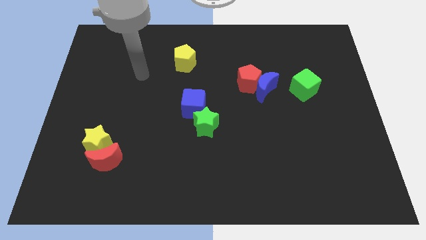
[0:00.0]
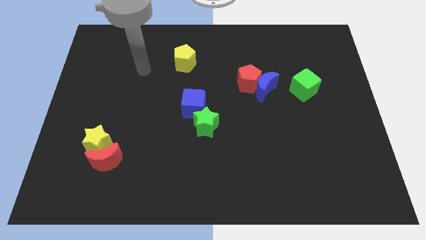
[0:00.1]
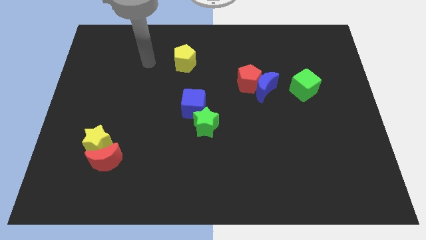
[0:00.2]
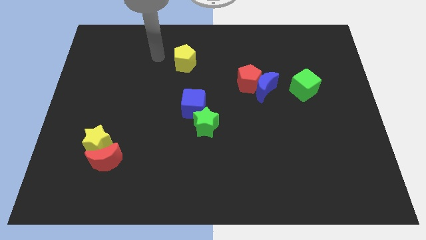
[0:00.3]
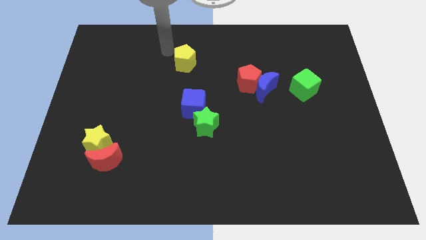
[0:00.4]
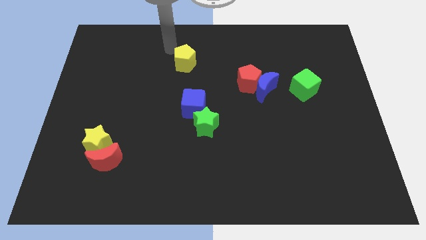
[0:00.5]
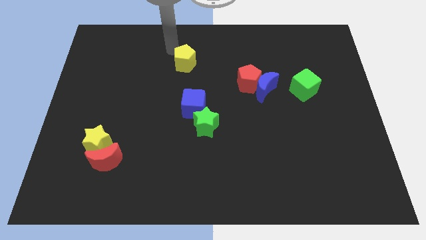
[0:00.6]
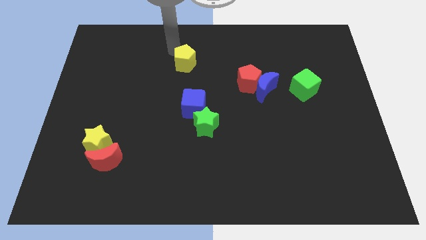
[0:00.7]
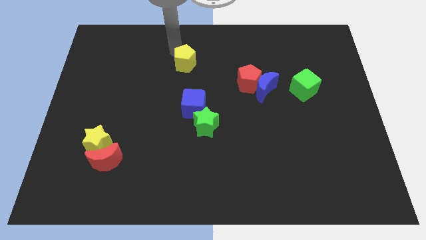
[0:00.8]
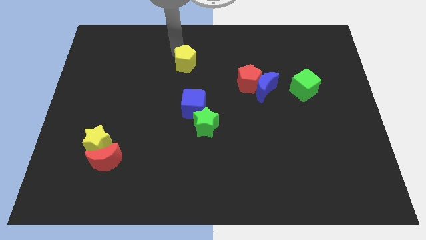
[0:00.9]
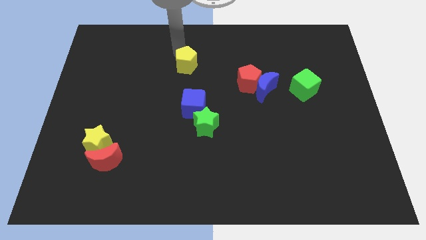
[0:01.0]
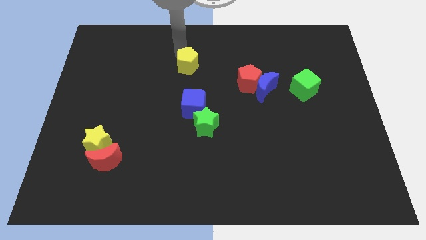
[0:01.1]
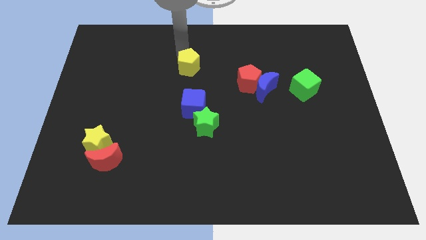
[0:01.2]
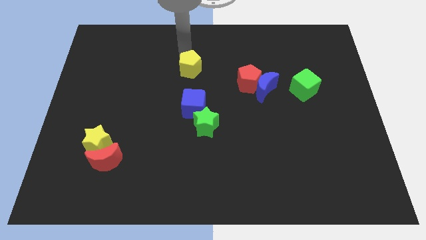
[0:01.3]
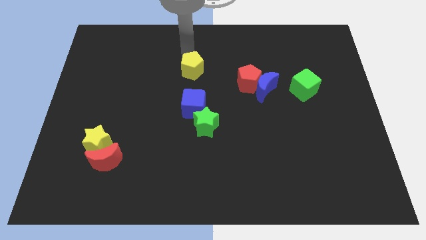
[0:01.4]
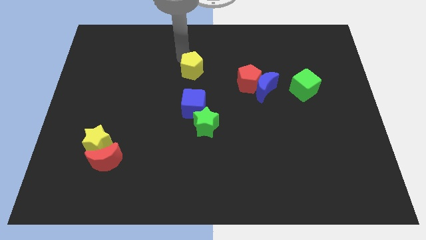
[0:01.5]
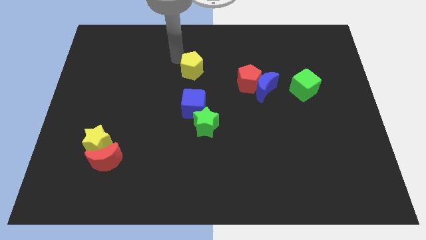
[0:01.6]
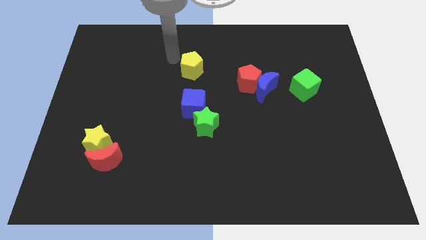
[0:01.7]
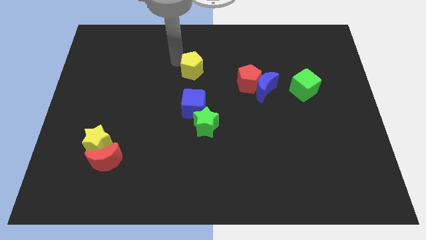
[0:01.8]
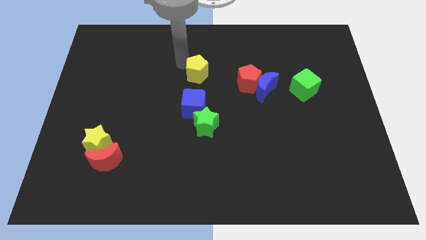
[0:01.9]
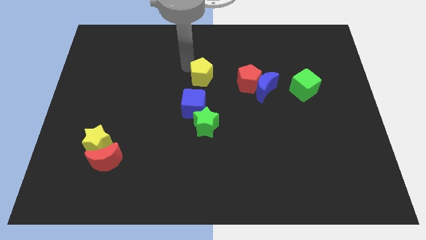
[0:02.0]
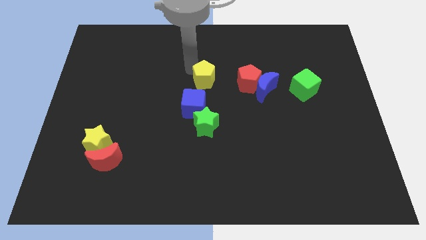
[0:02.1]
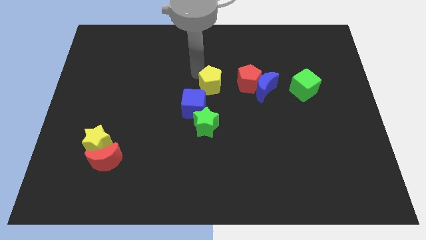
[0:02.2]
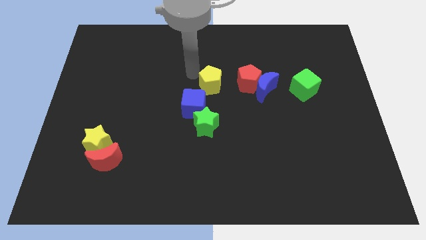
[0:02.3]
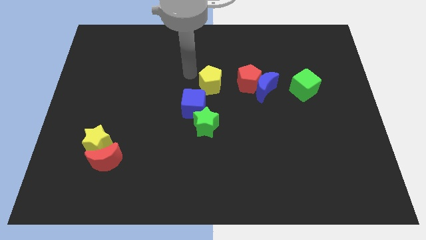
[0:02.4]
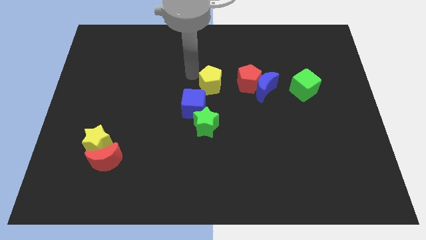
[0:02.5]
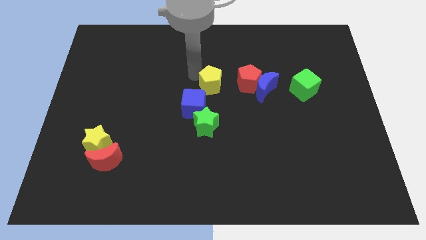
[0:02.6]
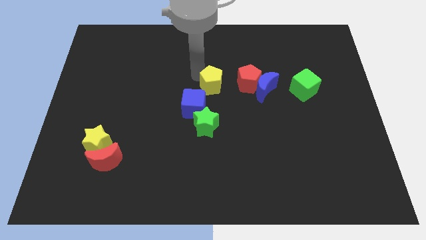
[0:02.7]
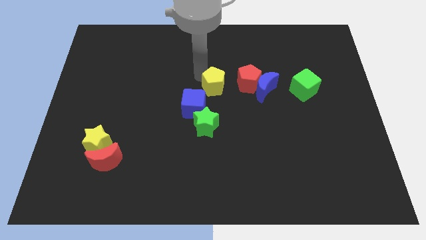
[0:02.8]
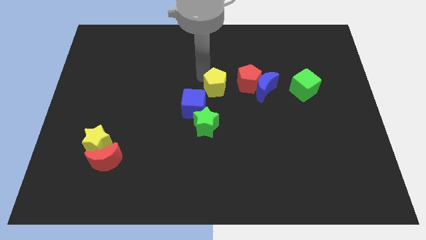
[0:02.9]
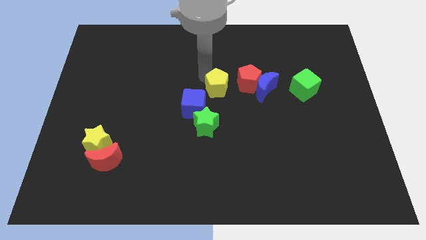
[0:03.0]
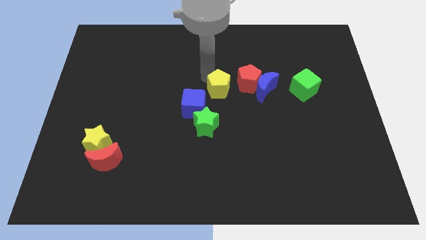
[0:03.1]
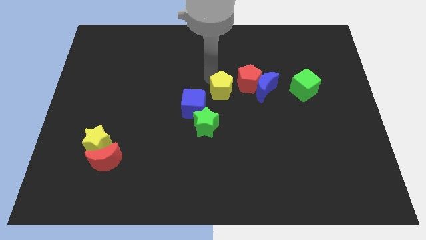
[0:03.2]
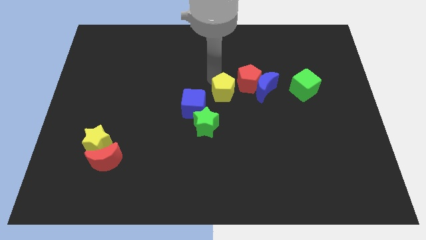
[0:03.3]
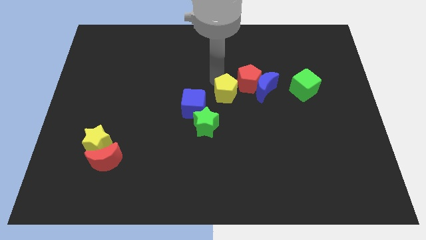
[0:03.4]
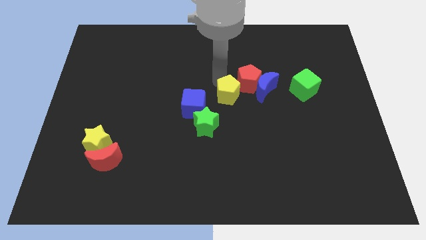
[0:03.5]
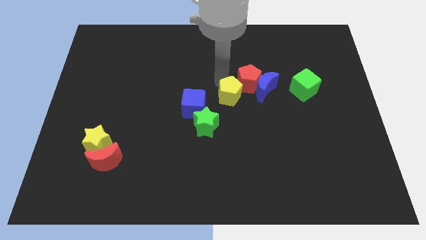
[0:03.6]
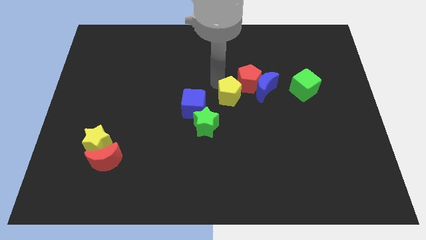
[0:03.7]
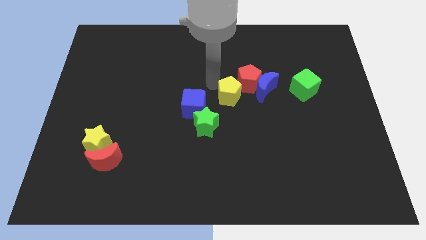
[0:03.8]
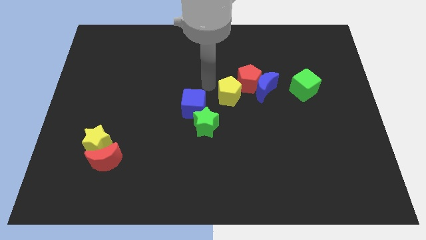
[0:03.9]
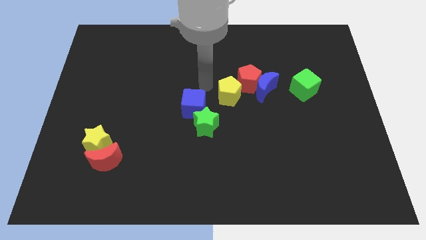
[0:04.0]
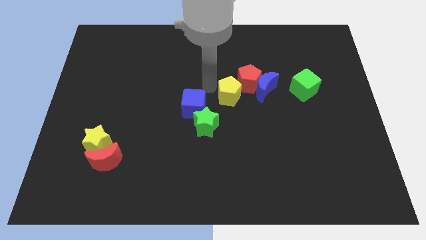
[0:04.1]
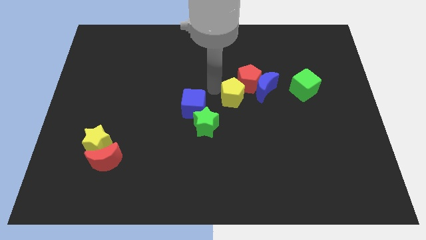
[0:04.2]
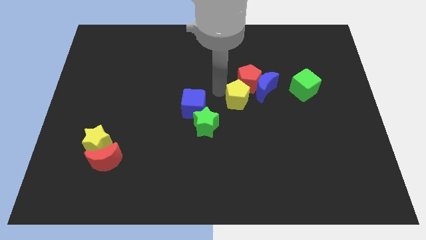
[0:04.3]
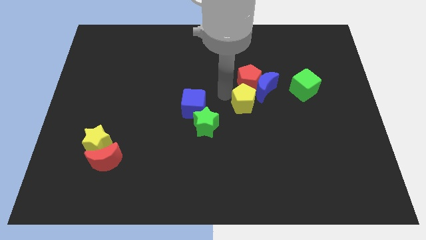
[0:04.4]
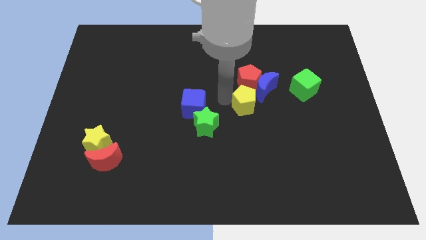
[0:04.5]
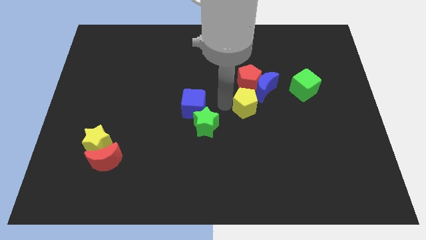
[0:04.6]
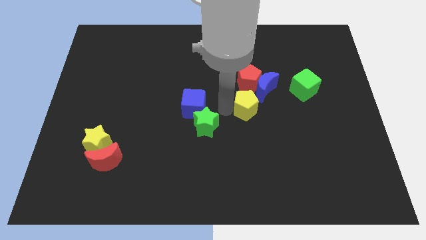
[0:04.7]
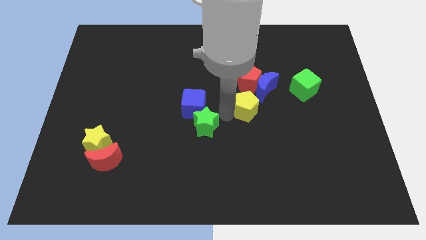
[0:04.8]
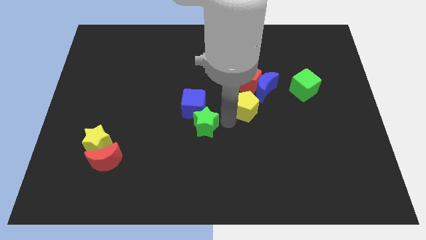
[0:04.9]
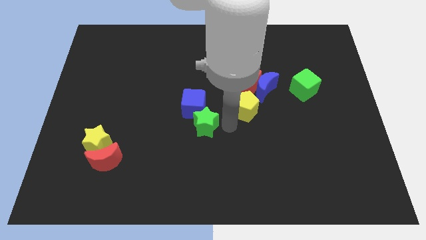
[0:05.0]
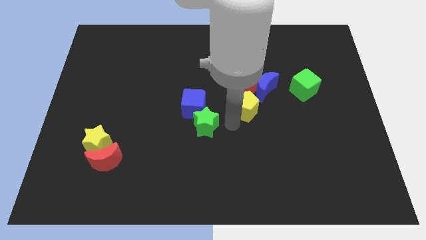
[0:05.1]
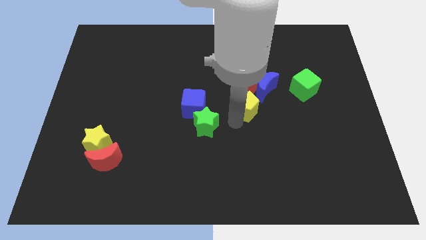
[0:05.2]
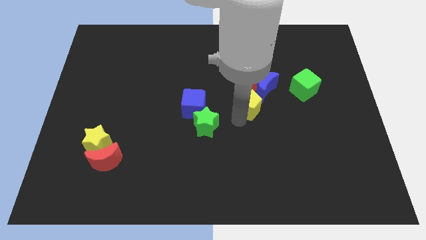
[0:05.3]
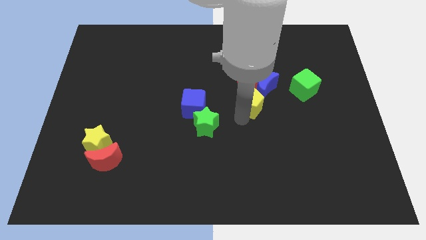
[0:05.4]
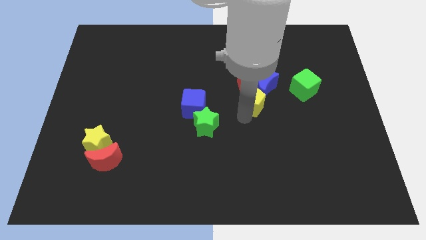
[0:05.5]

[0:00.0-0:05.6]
move the yellow pentagon towards the blue moon

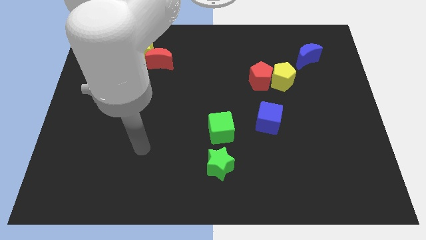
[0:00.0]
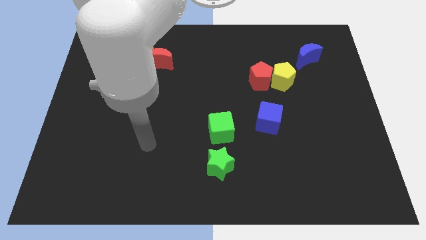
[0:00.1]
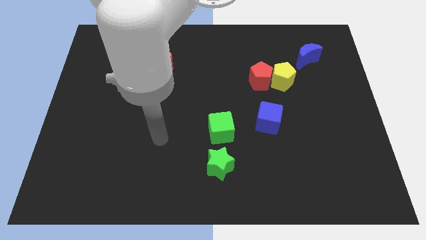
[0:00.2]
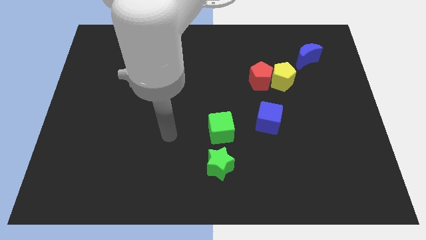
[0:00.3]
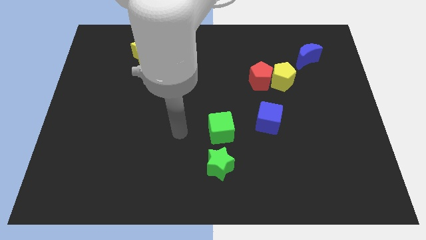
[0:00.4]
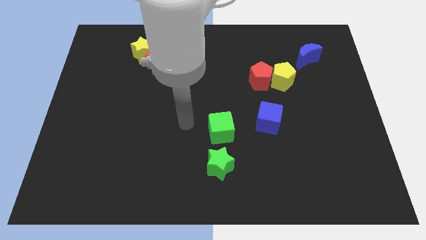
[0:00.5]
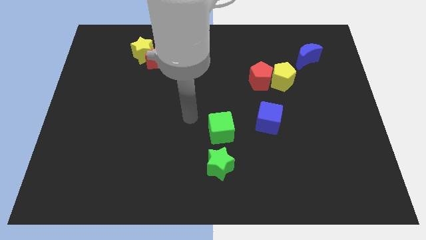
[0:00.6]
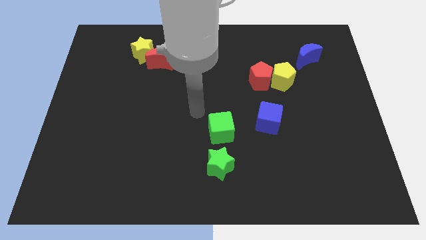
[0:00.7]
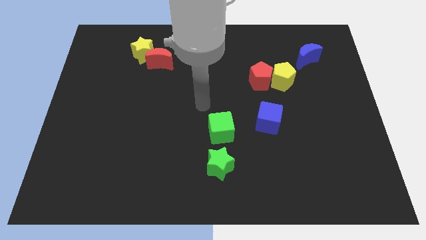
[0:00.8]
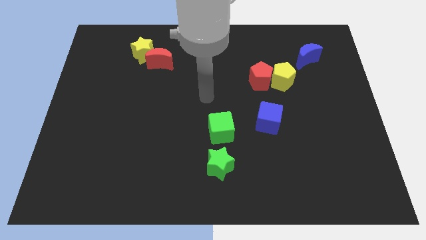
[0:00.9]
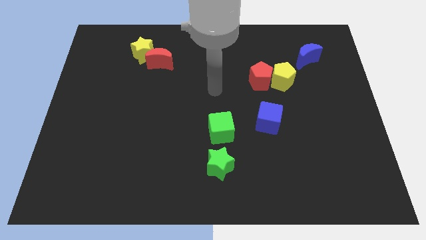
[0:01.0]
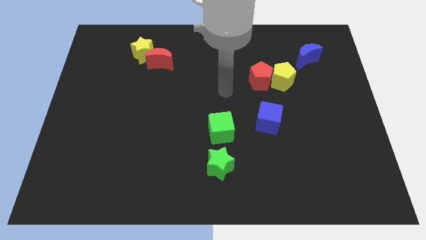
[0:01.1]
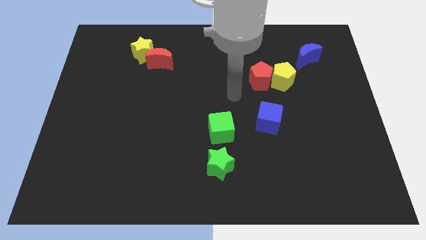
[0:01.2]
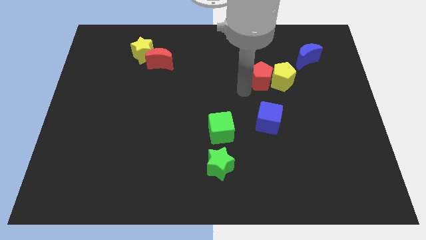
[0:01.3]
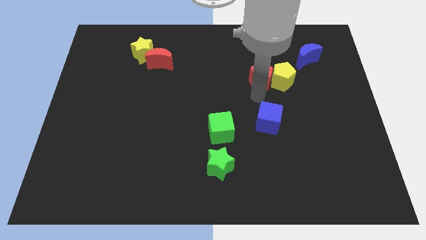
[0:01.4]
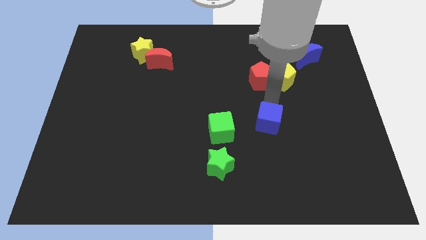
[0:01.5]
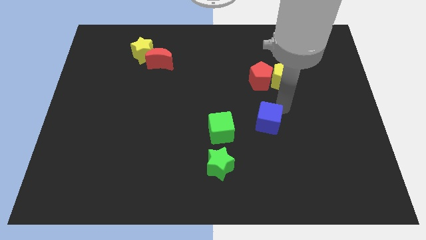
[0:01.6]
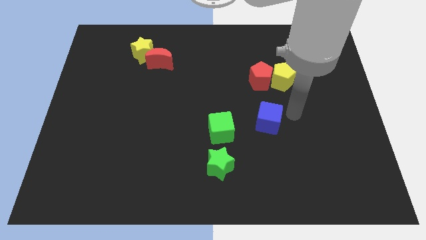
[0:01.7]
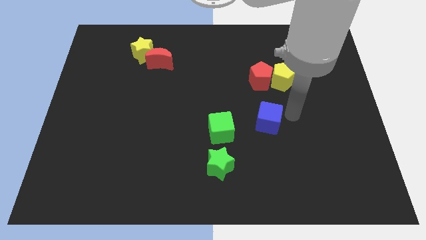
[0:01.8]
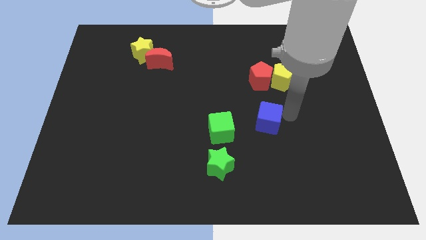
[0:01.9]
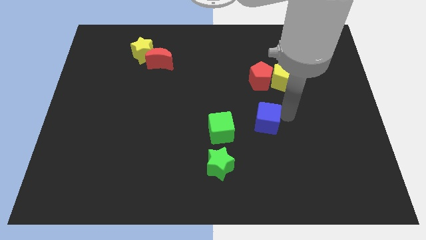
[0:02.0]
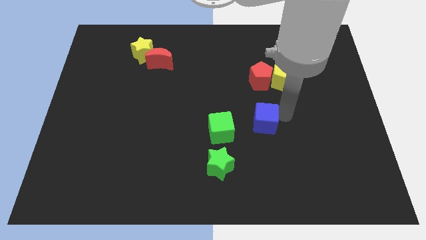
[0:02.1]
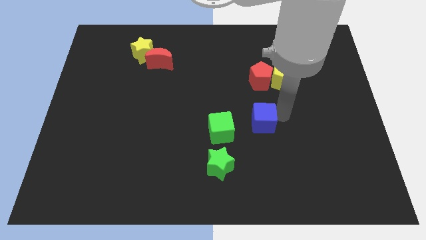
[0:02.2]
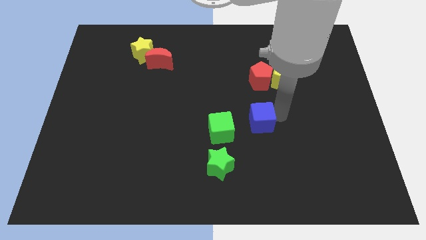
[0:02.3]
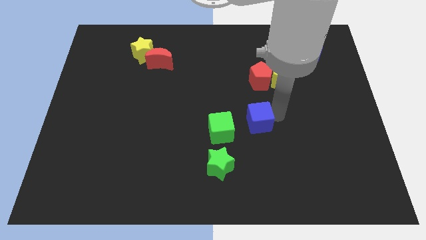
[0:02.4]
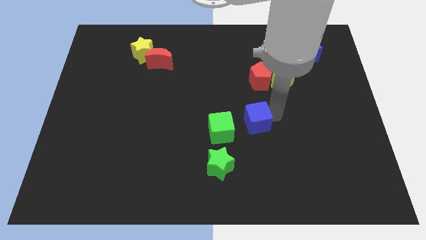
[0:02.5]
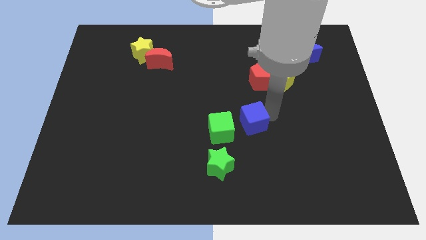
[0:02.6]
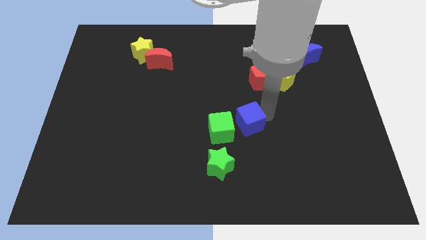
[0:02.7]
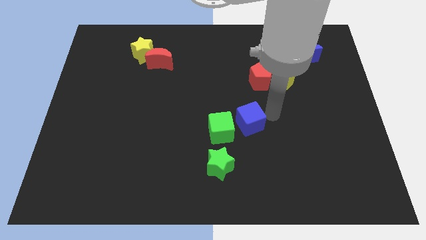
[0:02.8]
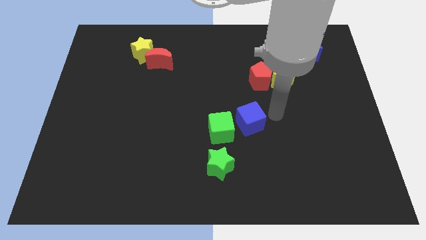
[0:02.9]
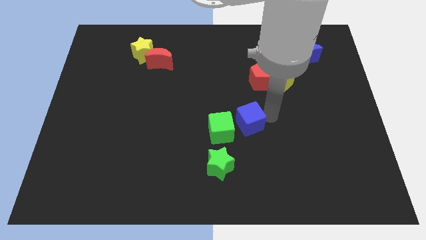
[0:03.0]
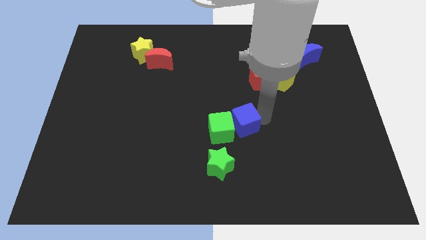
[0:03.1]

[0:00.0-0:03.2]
push the blue cube close to the green cube
